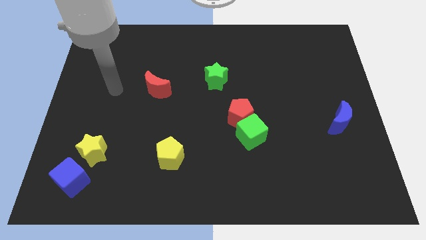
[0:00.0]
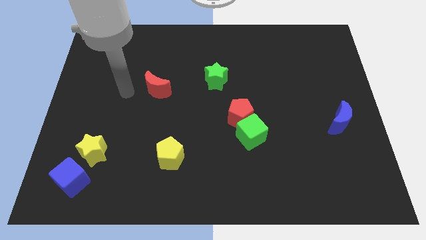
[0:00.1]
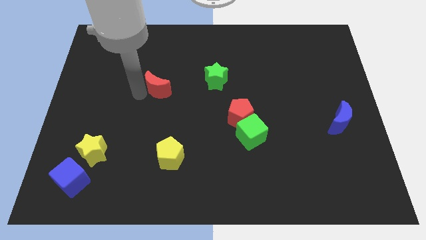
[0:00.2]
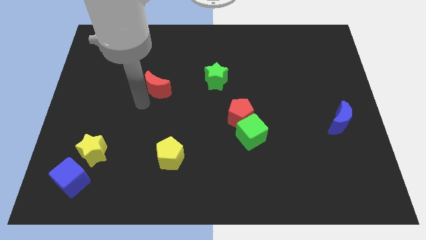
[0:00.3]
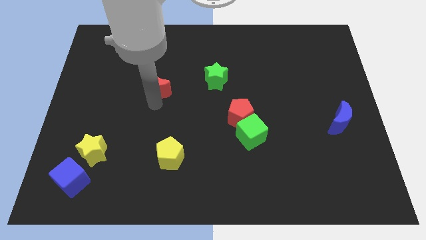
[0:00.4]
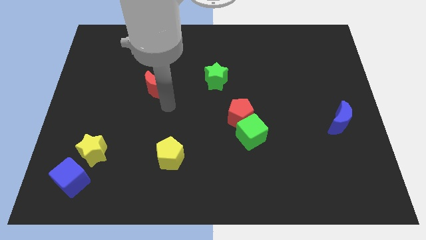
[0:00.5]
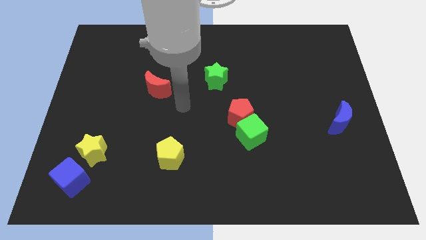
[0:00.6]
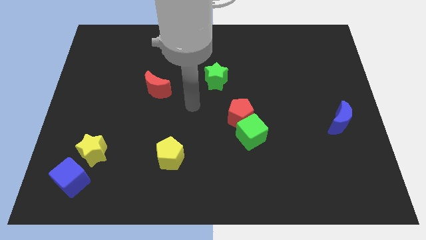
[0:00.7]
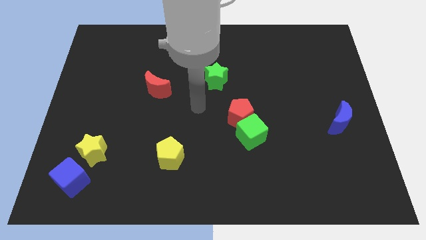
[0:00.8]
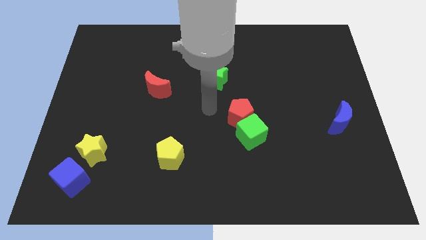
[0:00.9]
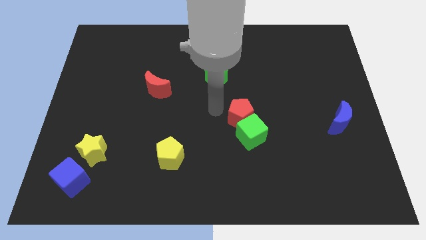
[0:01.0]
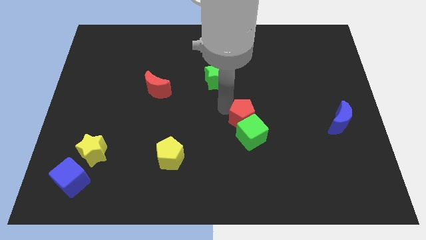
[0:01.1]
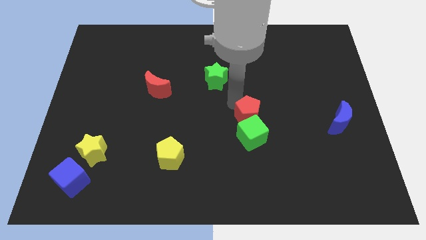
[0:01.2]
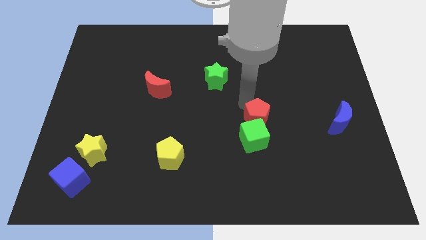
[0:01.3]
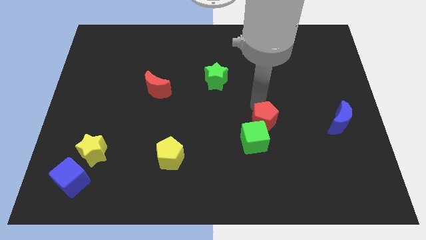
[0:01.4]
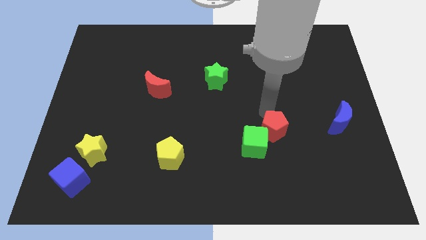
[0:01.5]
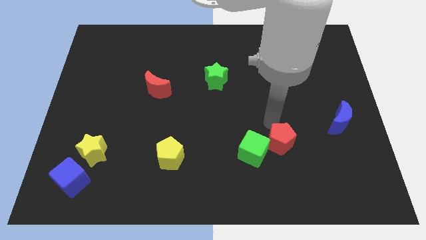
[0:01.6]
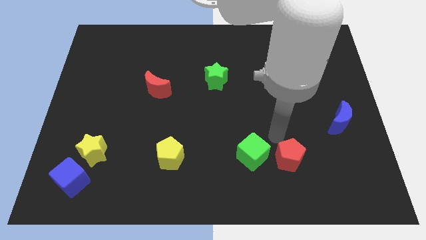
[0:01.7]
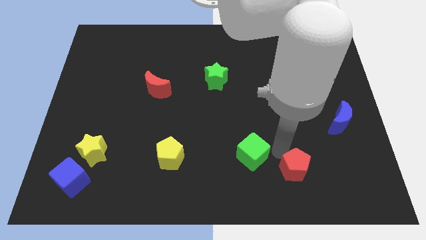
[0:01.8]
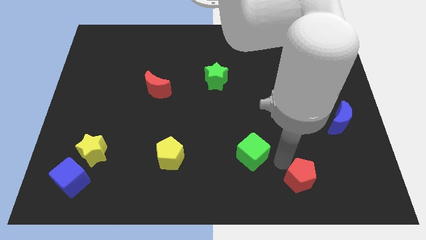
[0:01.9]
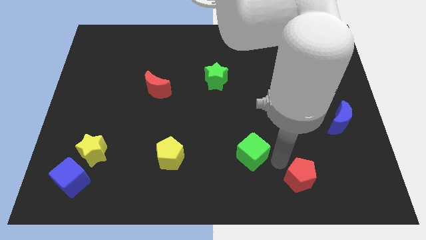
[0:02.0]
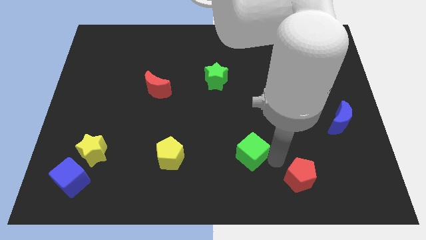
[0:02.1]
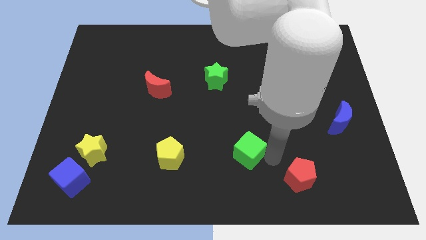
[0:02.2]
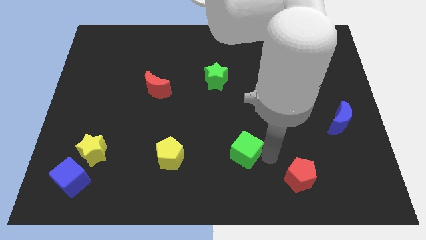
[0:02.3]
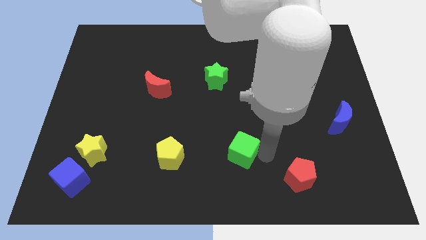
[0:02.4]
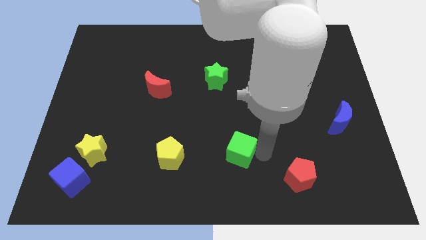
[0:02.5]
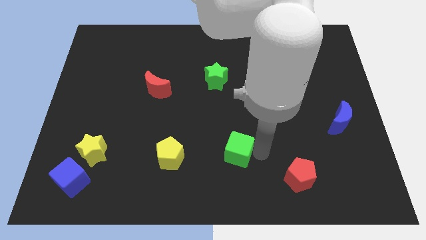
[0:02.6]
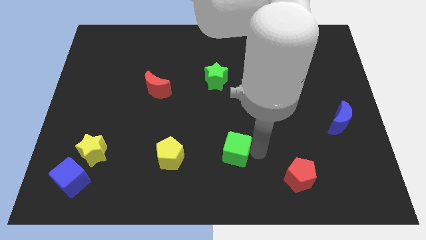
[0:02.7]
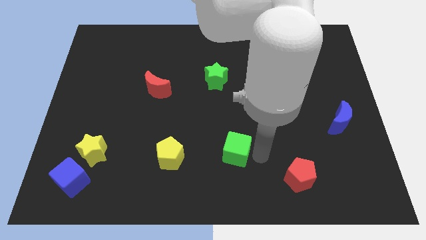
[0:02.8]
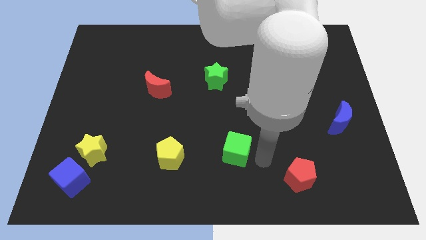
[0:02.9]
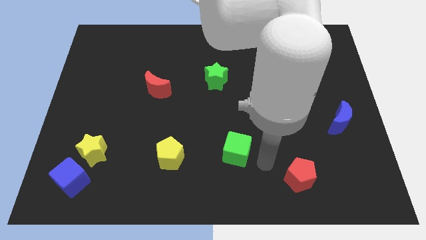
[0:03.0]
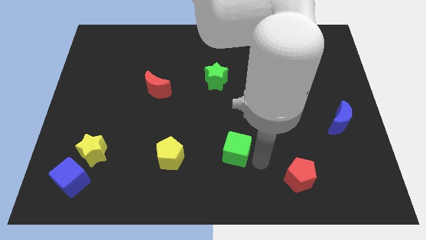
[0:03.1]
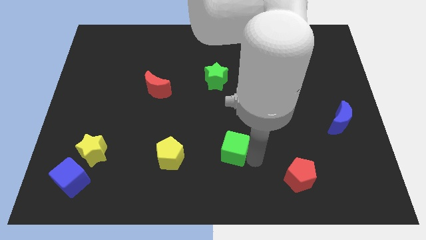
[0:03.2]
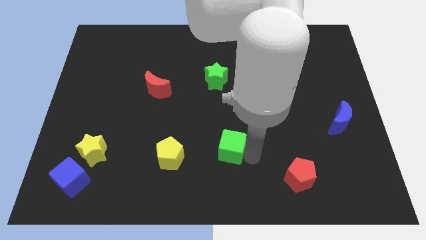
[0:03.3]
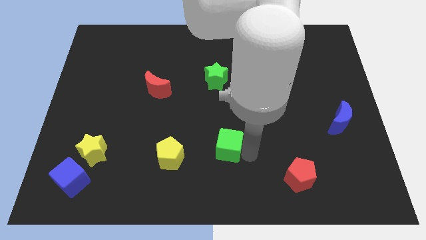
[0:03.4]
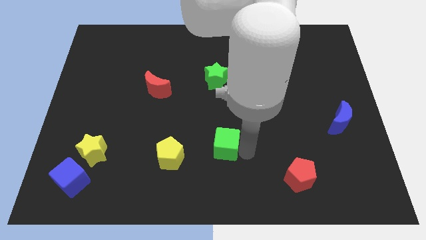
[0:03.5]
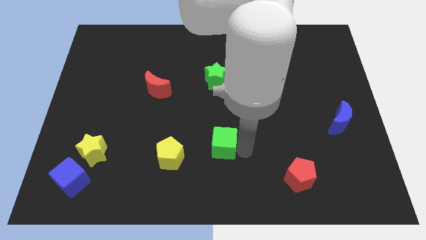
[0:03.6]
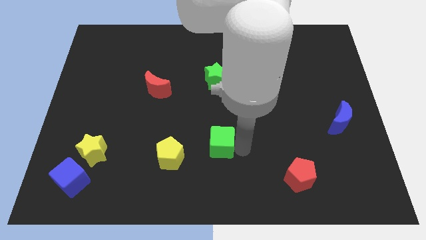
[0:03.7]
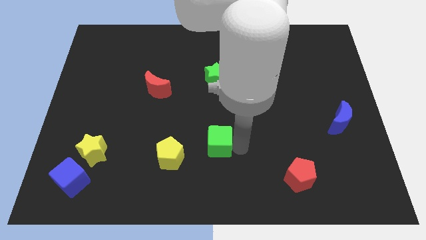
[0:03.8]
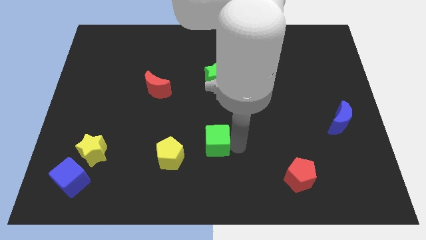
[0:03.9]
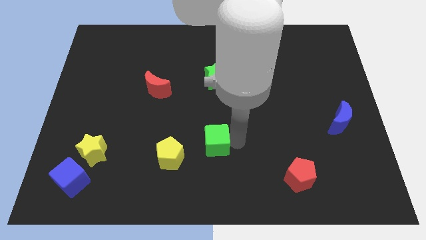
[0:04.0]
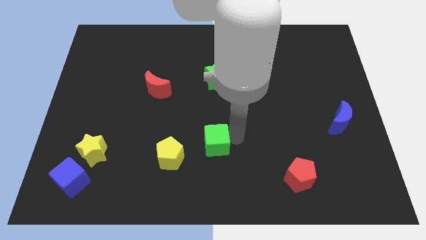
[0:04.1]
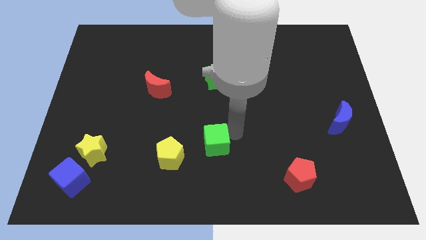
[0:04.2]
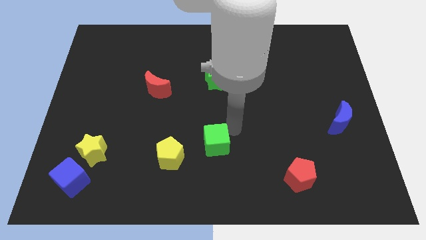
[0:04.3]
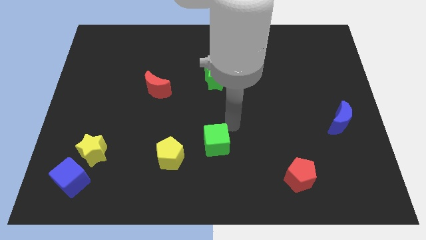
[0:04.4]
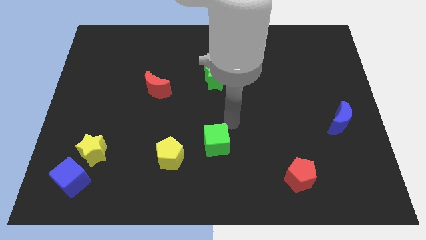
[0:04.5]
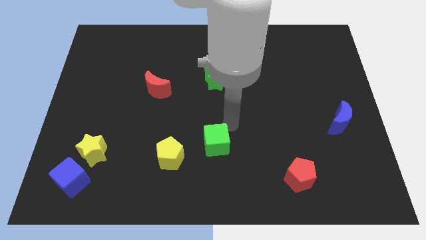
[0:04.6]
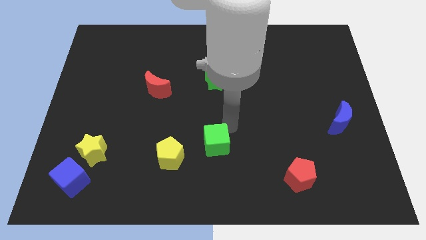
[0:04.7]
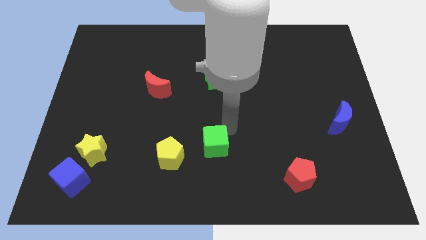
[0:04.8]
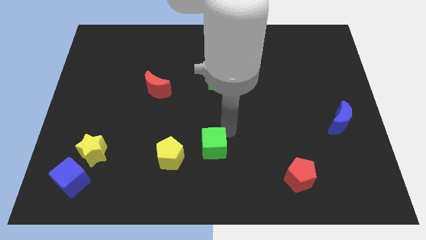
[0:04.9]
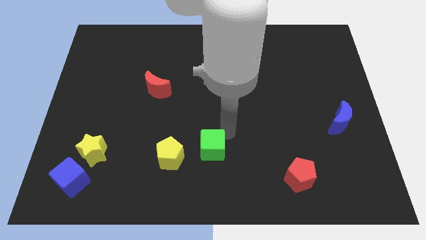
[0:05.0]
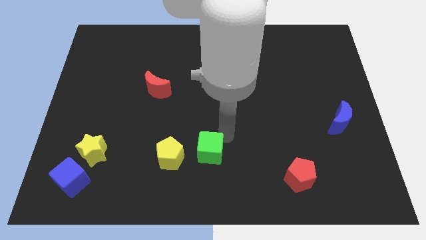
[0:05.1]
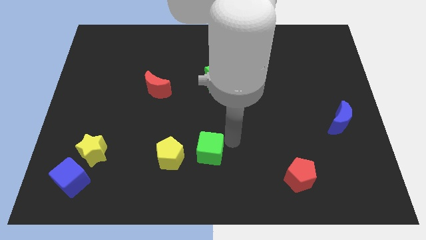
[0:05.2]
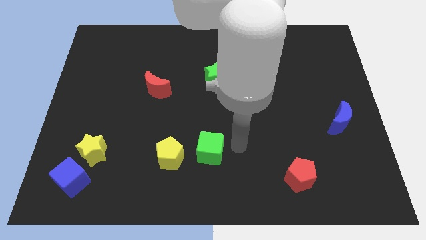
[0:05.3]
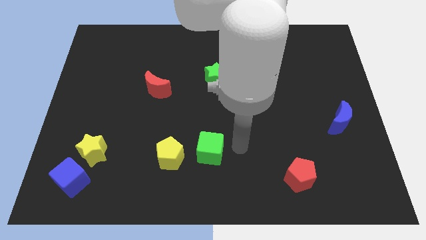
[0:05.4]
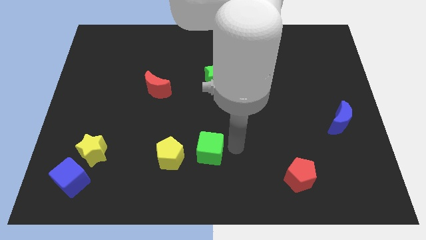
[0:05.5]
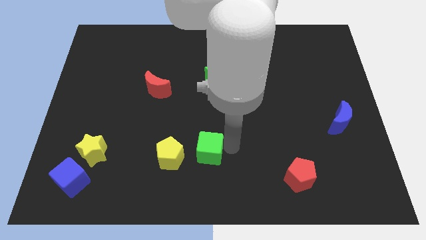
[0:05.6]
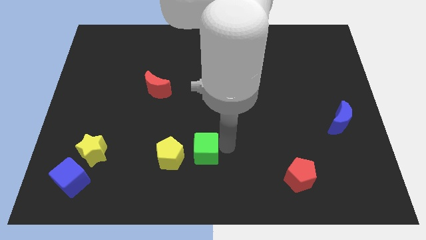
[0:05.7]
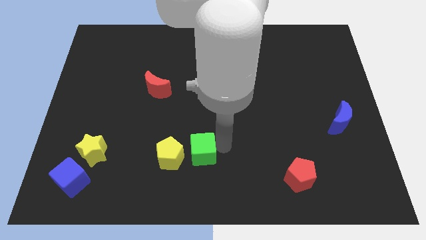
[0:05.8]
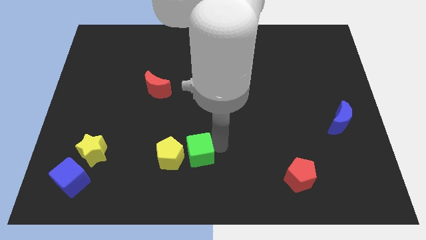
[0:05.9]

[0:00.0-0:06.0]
put the green cube towards the yellow pentagon

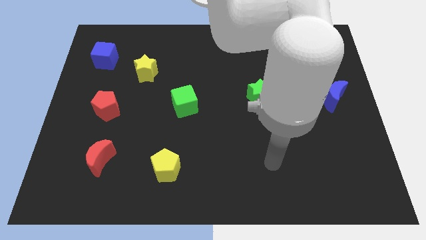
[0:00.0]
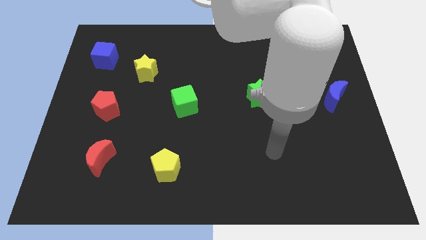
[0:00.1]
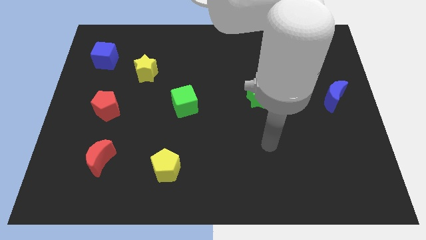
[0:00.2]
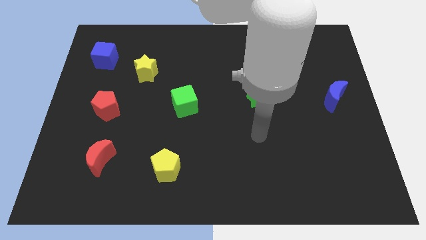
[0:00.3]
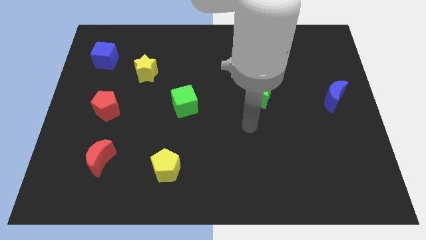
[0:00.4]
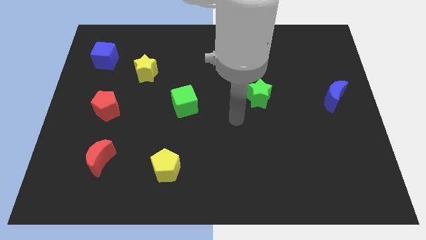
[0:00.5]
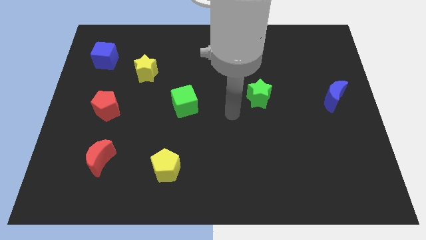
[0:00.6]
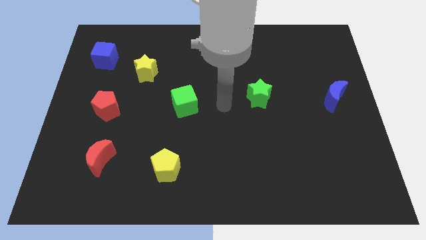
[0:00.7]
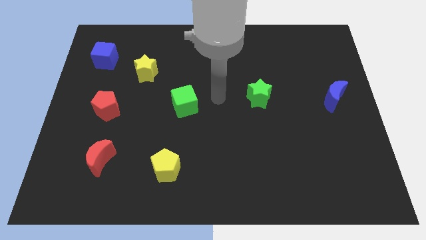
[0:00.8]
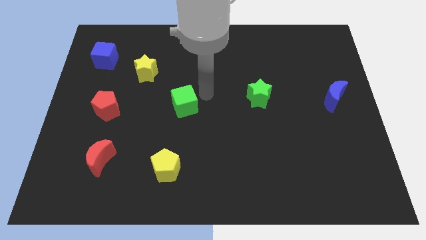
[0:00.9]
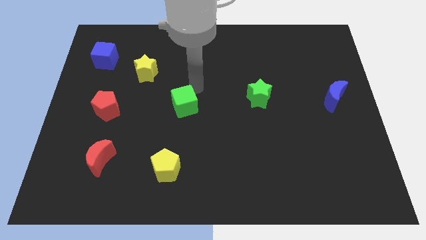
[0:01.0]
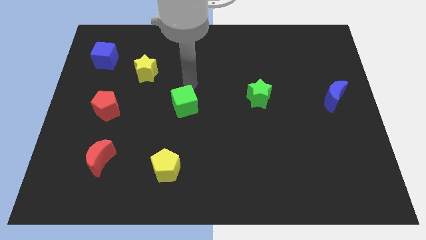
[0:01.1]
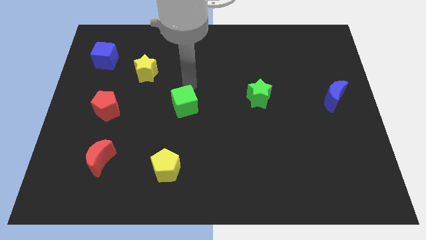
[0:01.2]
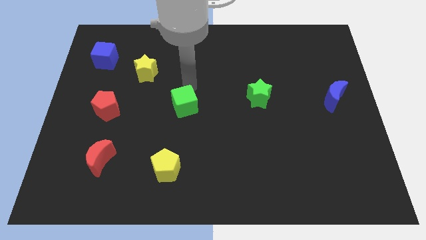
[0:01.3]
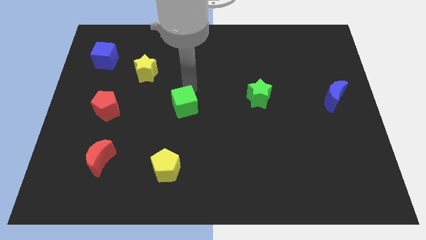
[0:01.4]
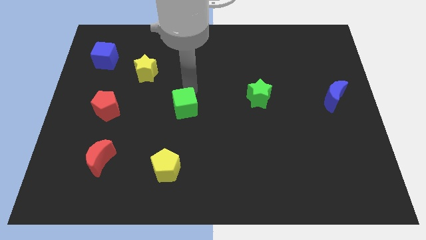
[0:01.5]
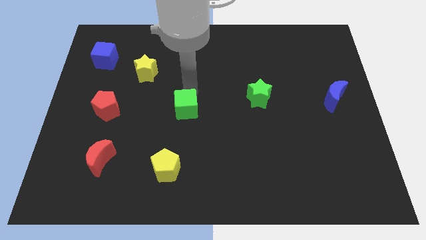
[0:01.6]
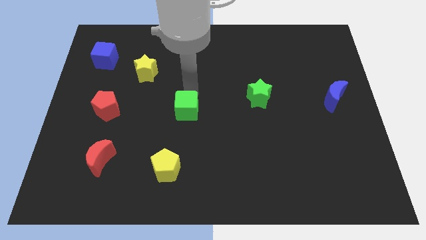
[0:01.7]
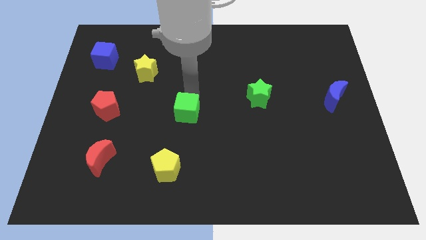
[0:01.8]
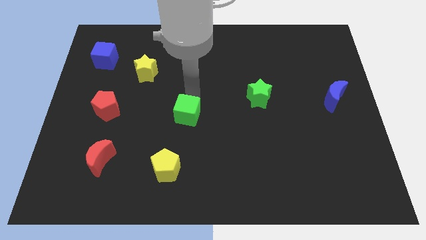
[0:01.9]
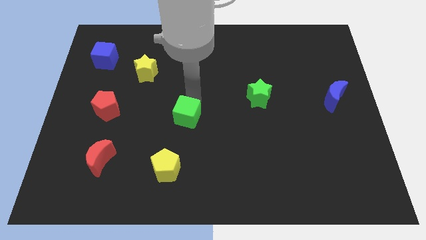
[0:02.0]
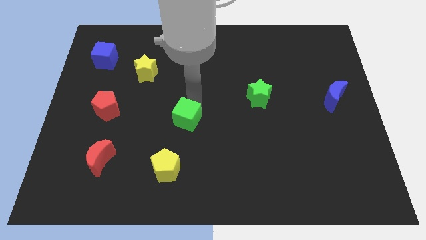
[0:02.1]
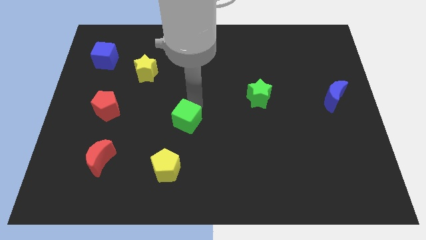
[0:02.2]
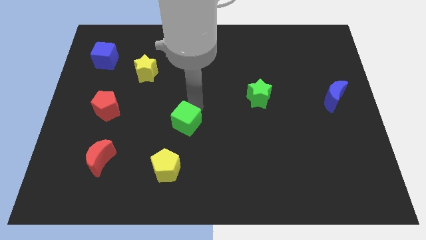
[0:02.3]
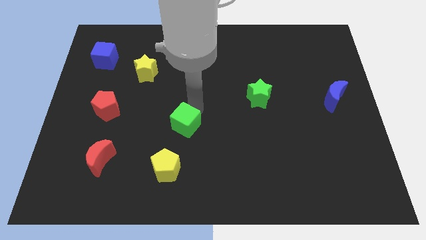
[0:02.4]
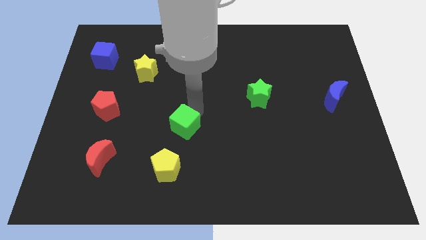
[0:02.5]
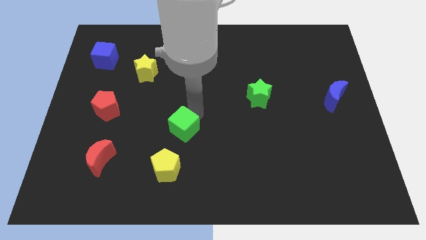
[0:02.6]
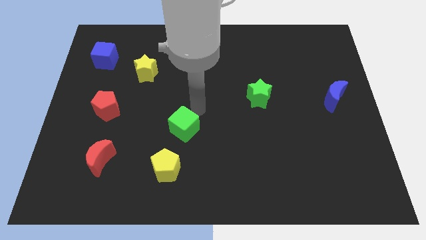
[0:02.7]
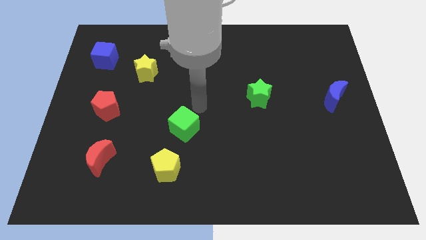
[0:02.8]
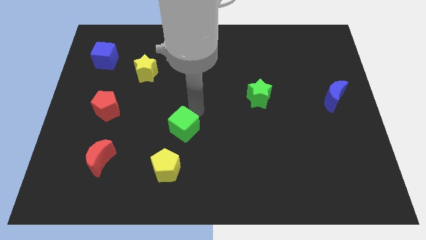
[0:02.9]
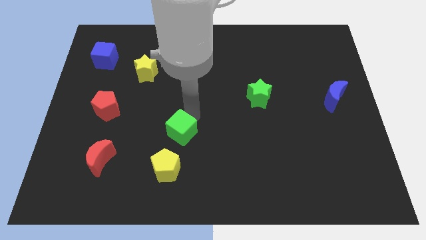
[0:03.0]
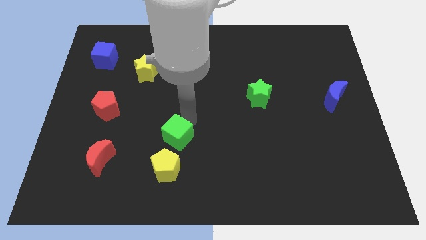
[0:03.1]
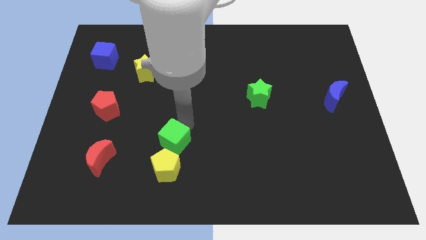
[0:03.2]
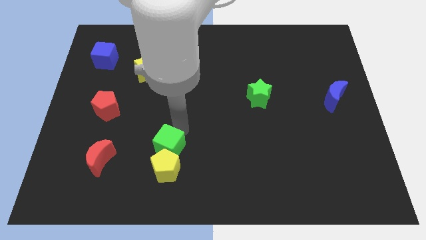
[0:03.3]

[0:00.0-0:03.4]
slide the green cube towards the yellow pentagon
